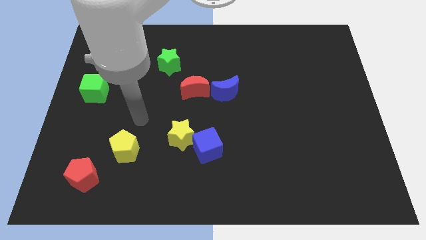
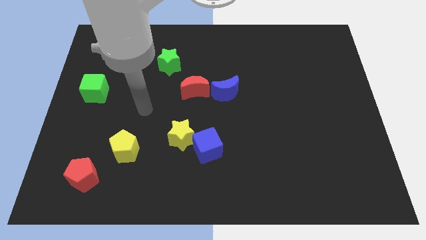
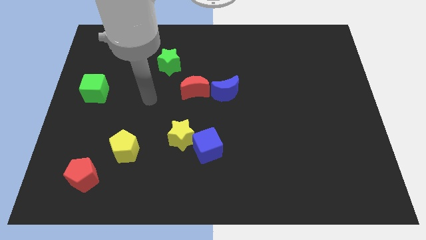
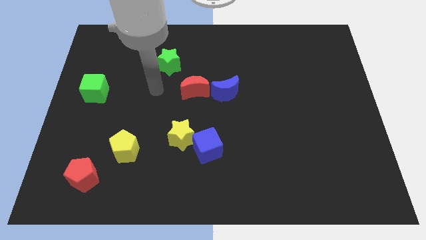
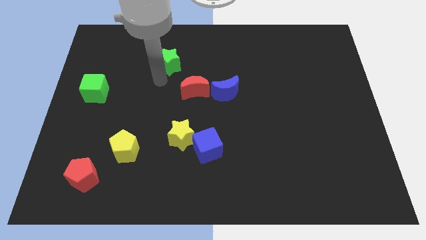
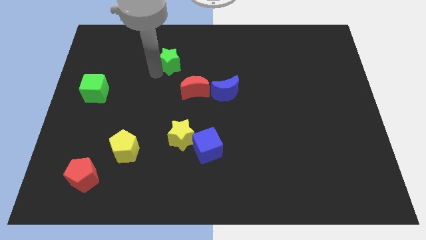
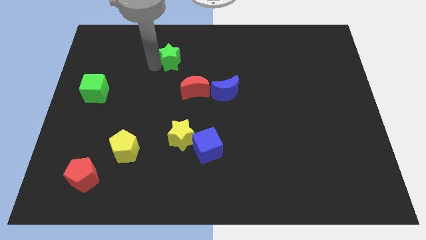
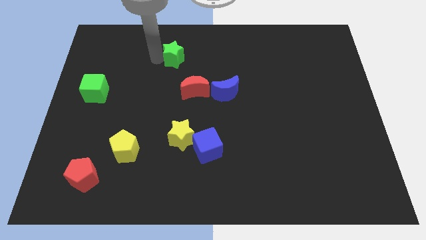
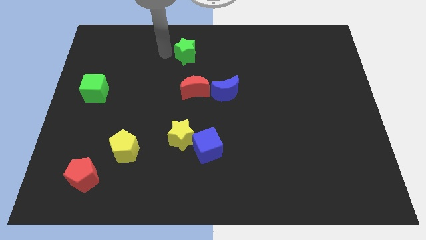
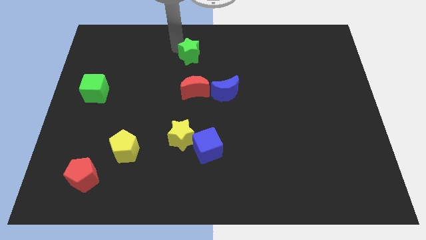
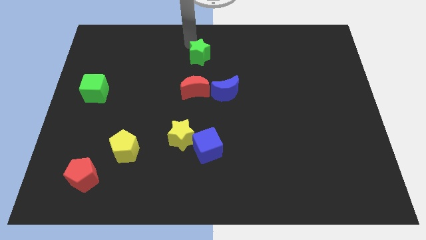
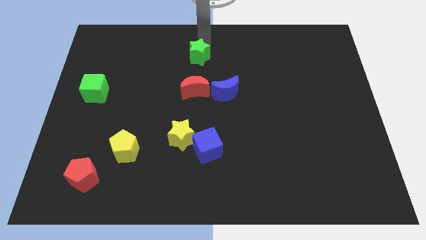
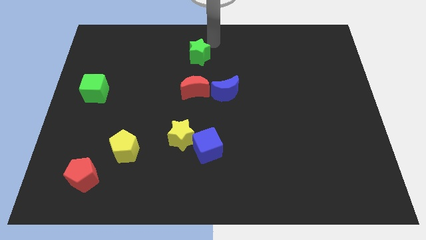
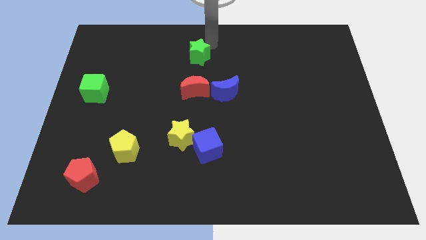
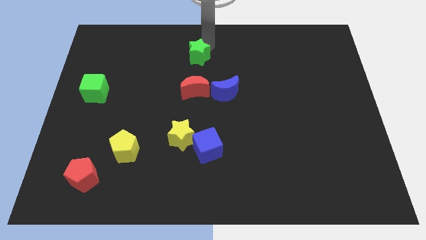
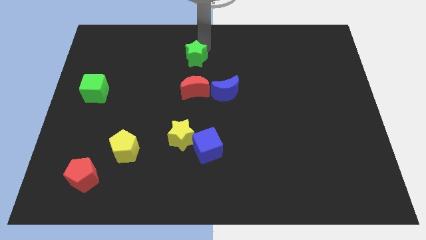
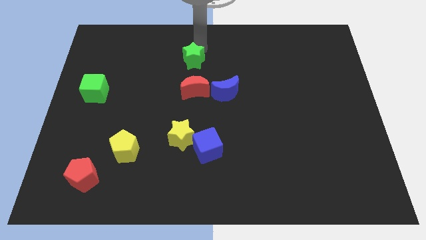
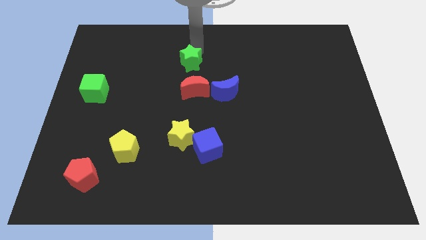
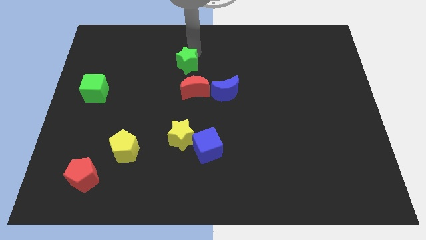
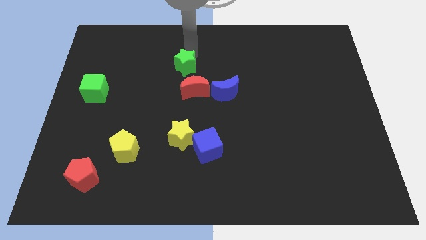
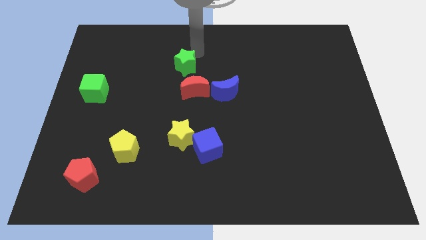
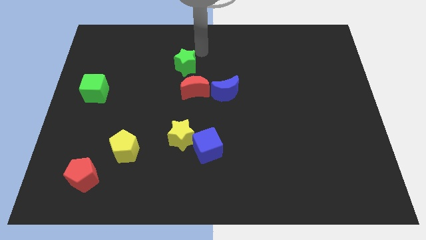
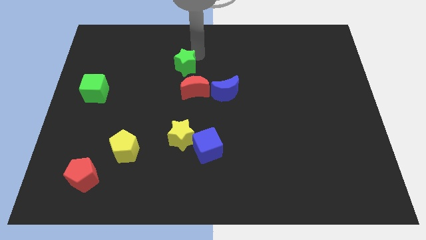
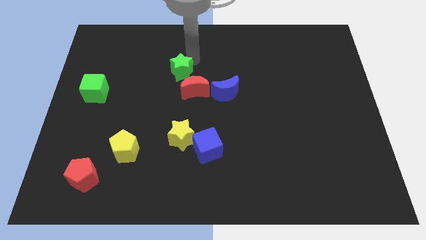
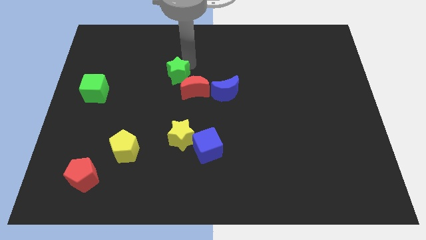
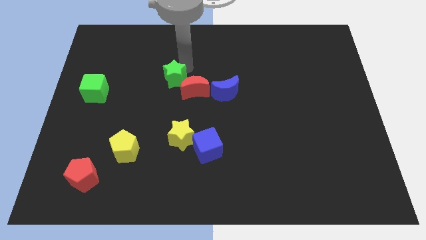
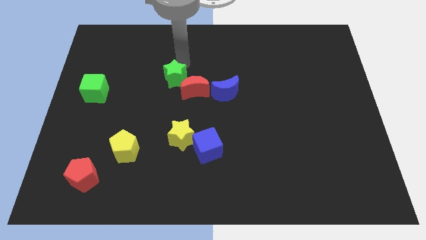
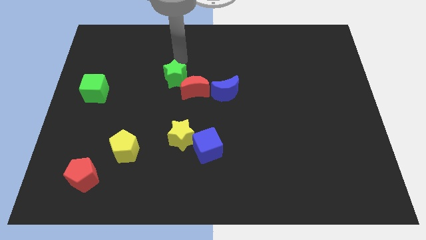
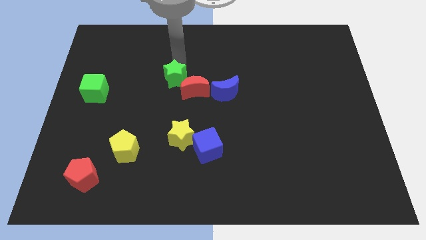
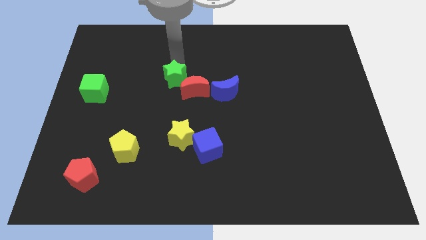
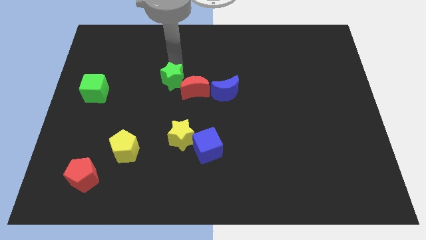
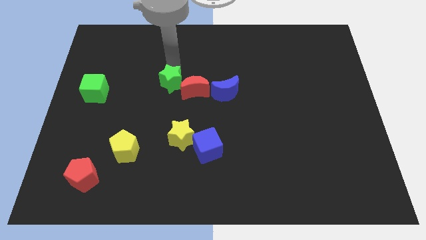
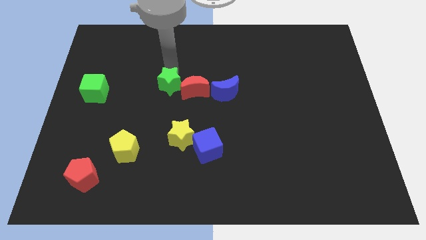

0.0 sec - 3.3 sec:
push the green star a little bit down

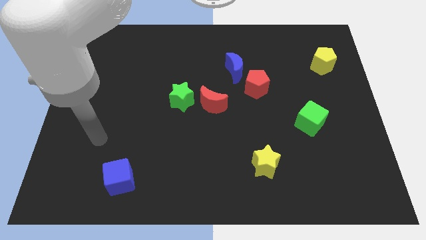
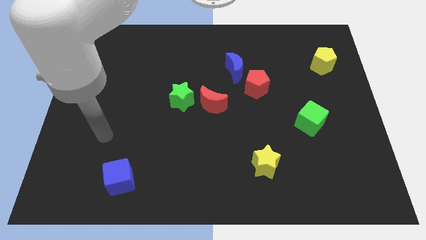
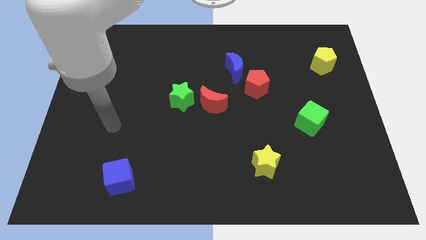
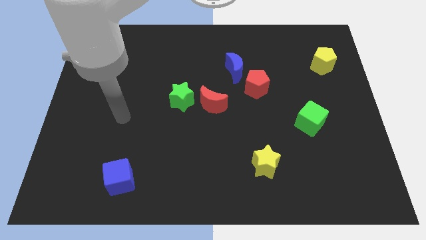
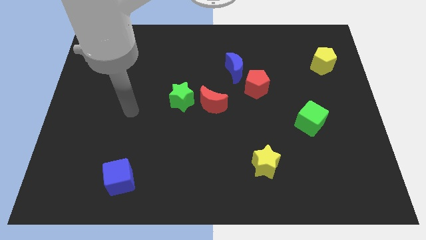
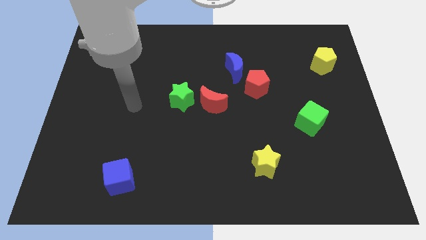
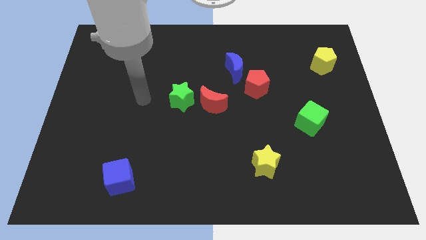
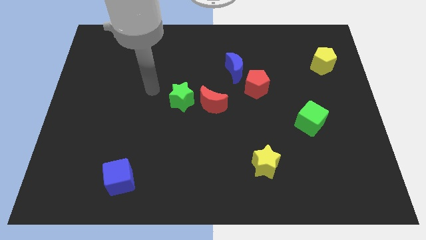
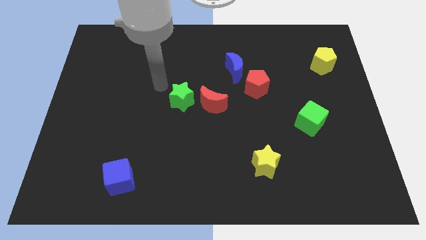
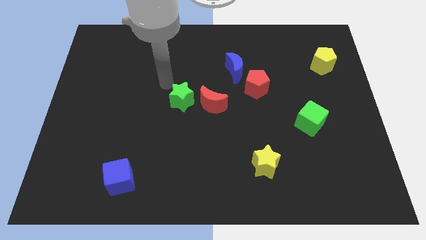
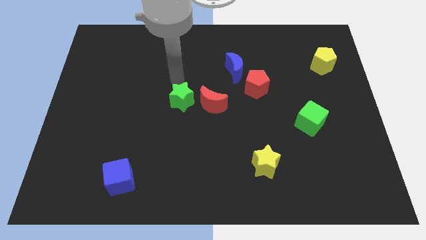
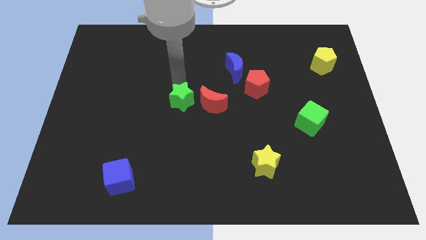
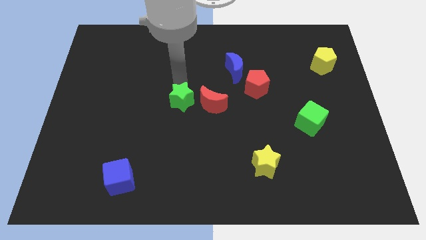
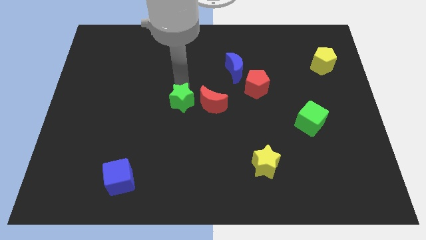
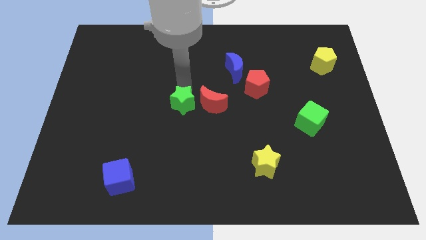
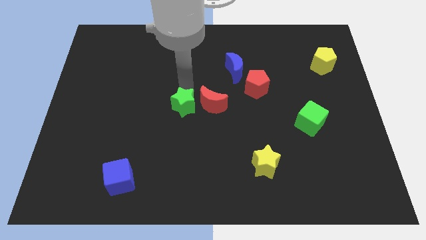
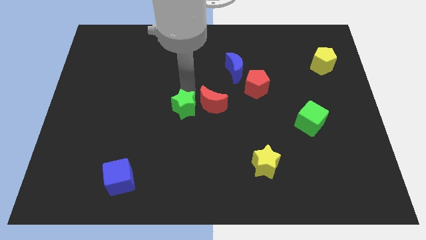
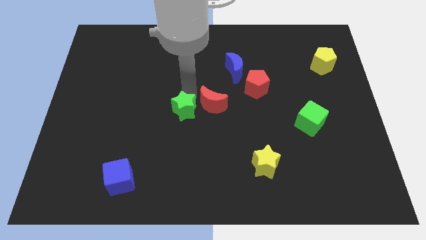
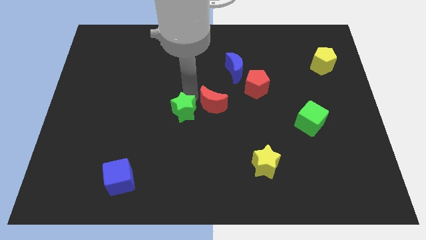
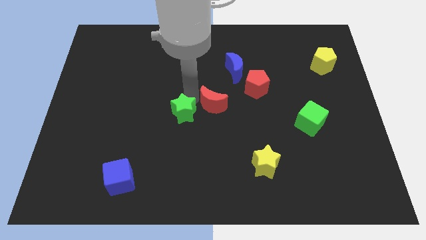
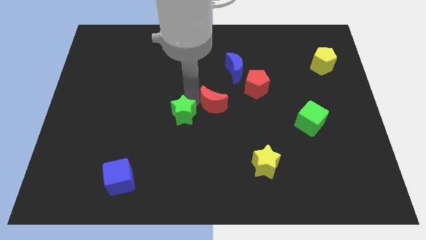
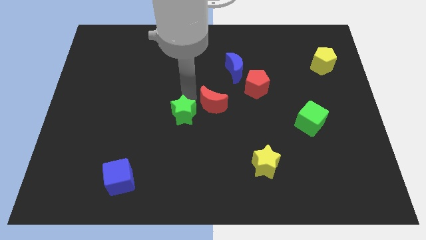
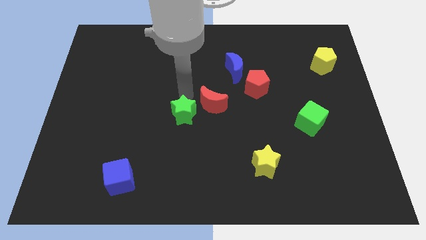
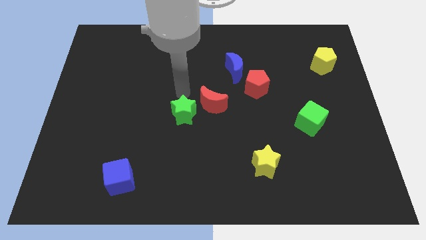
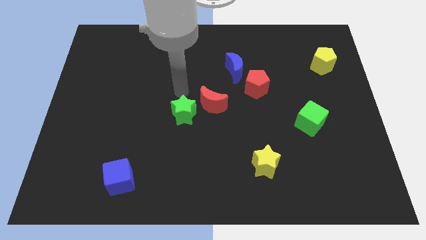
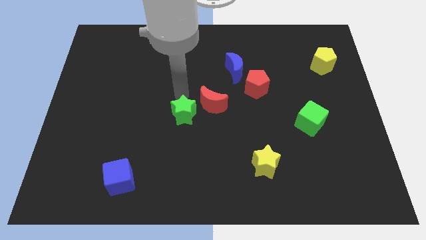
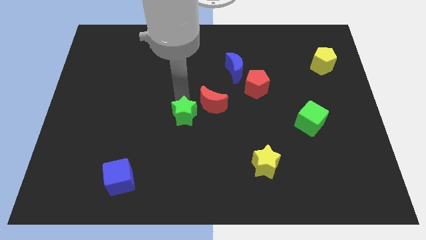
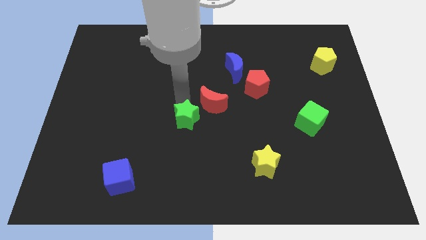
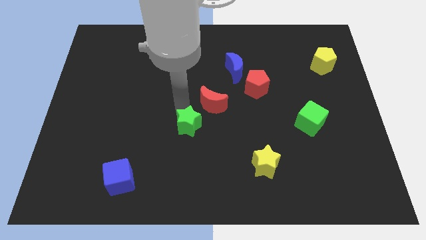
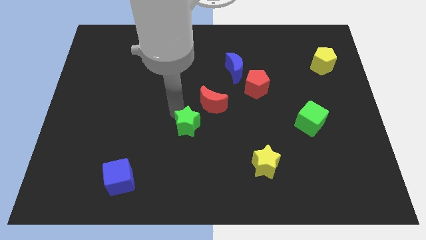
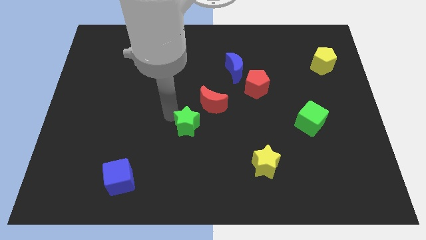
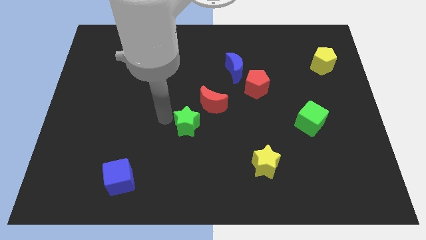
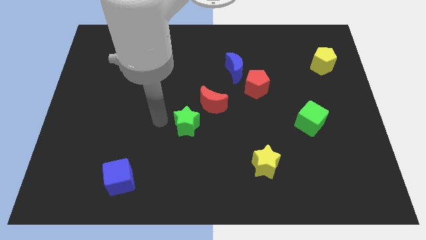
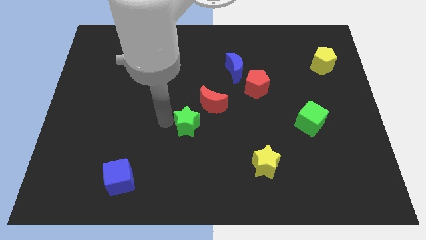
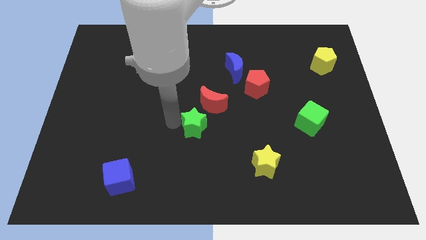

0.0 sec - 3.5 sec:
slightly slide the green star diagonally down and right

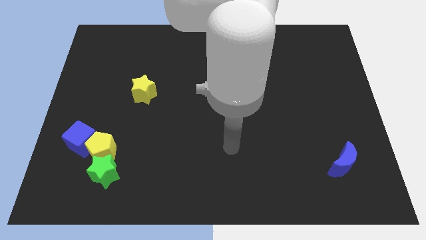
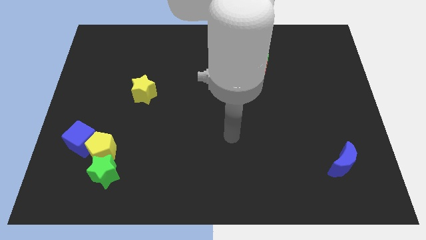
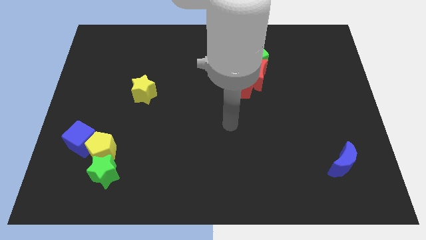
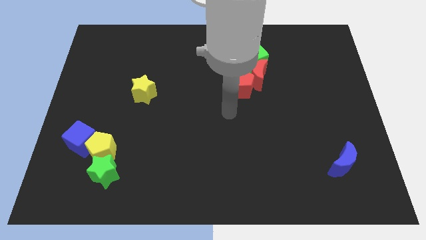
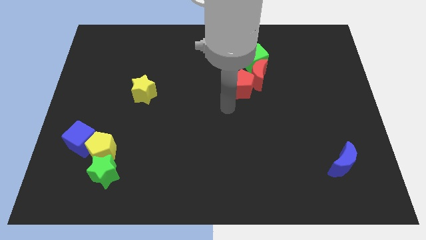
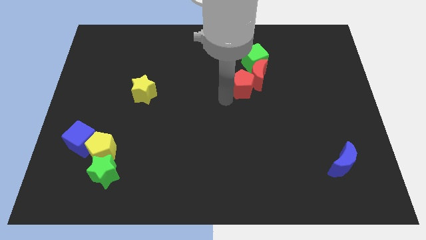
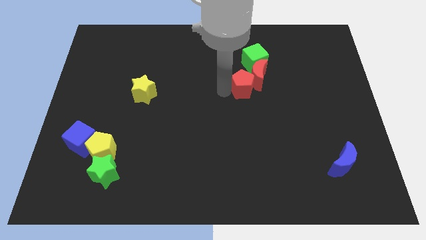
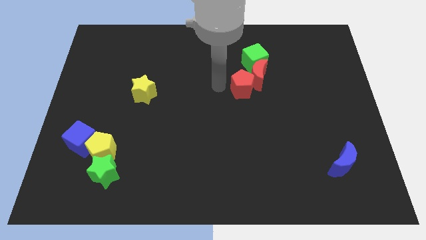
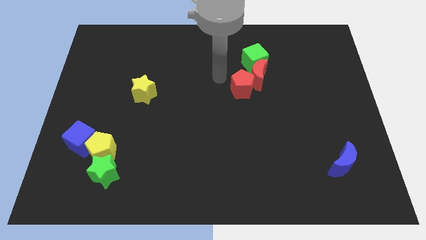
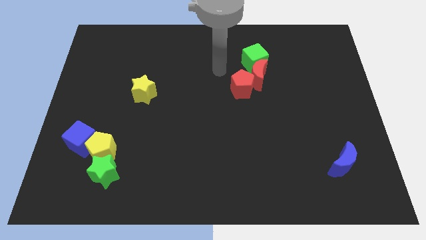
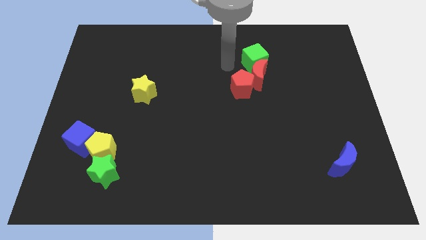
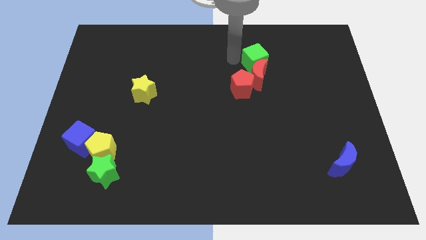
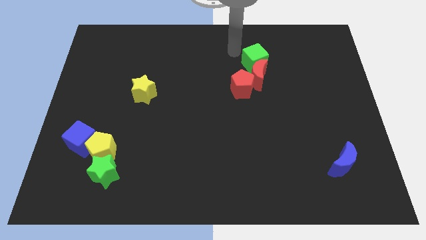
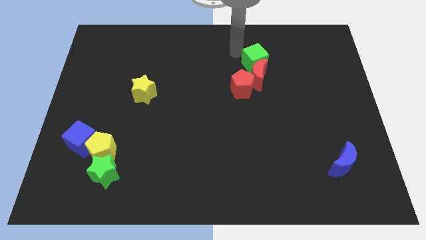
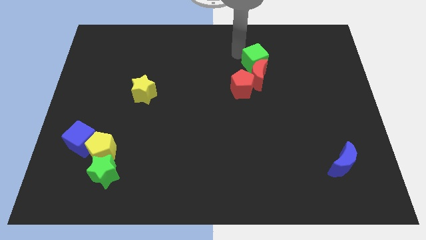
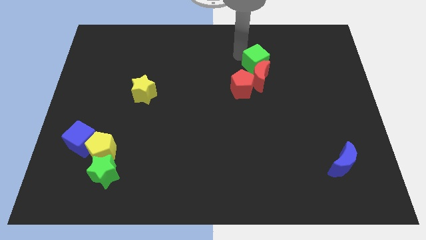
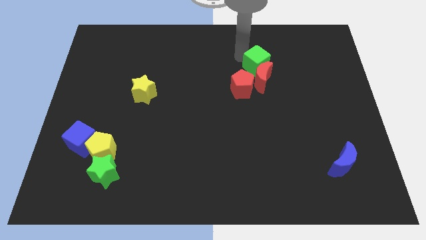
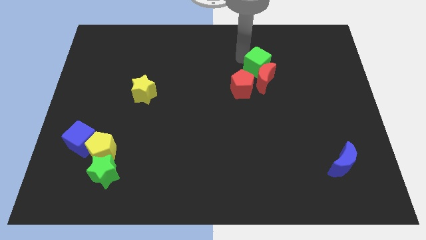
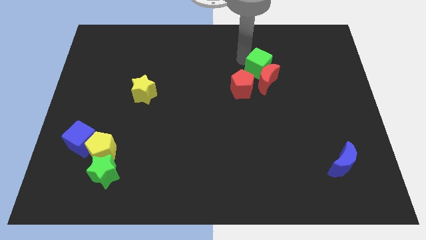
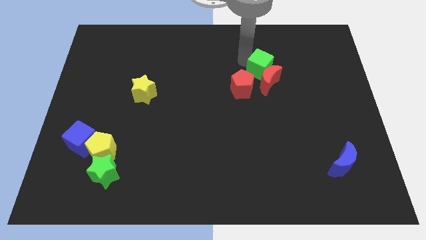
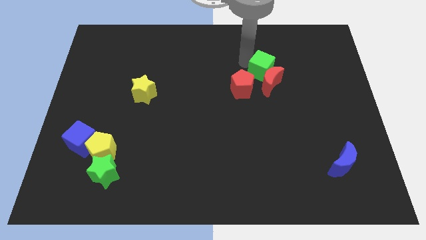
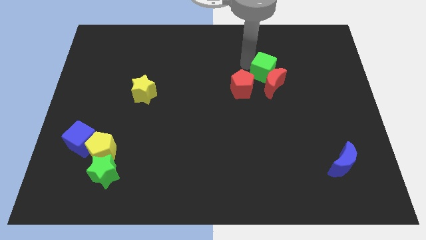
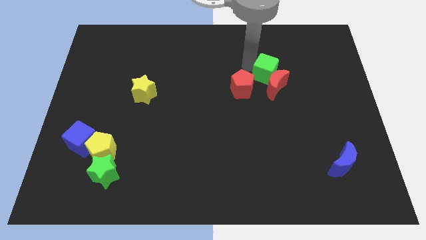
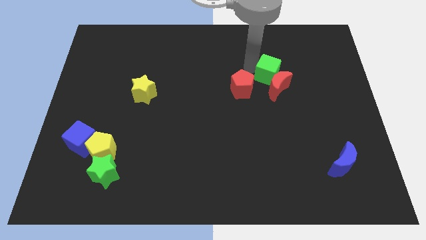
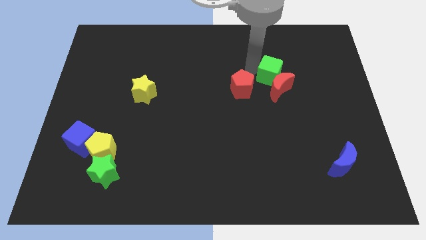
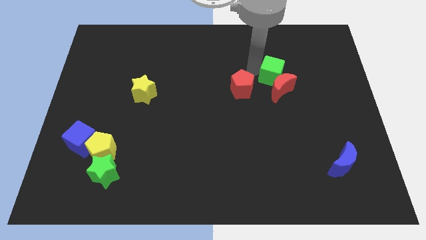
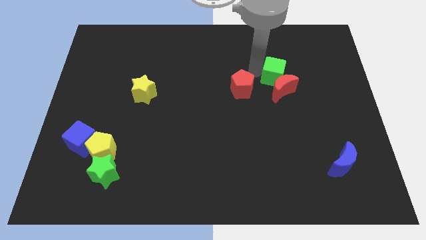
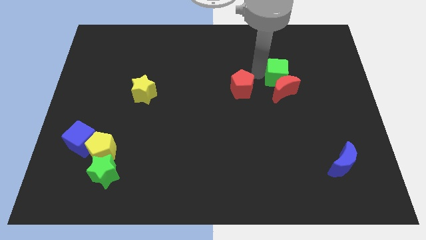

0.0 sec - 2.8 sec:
slightly move the green cube down and to the right diagonally
